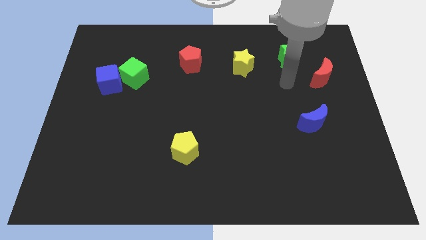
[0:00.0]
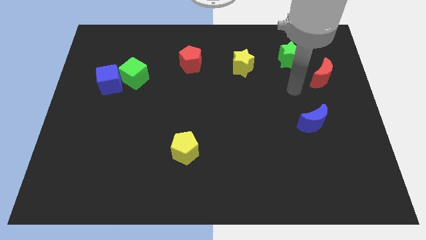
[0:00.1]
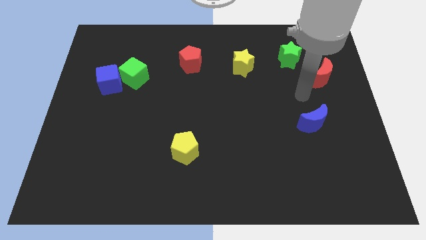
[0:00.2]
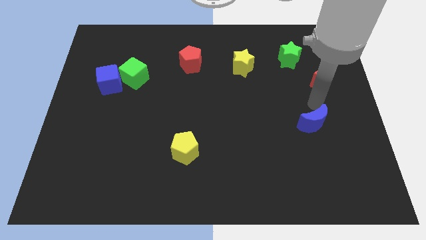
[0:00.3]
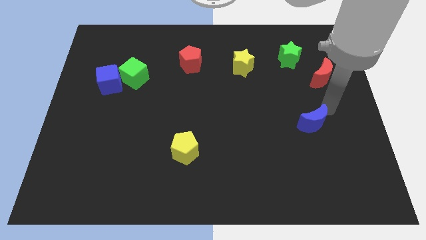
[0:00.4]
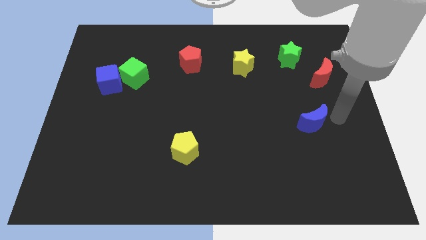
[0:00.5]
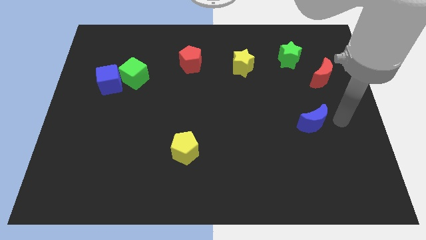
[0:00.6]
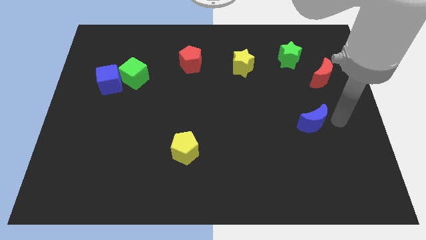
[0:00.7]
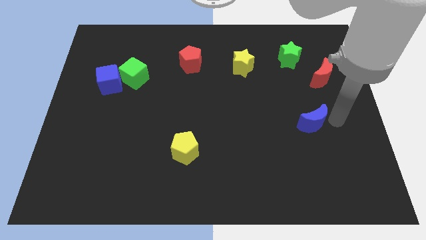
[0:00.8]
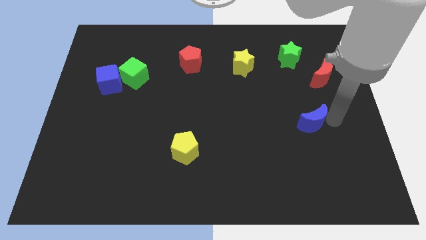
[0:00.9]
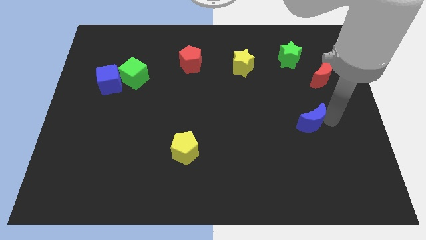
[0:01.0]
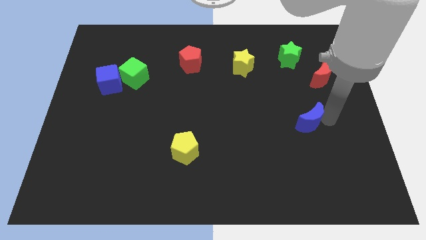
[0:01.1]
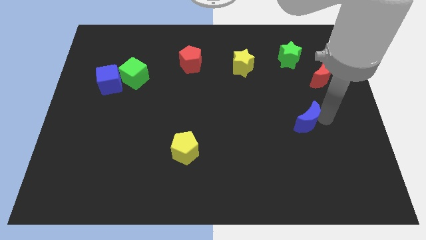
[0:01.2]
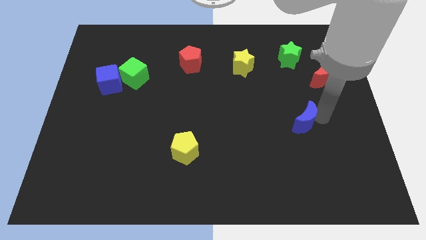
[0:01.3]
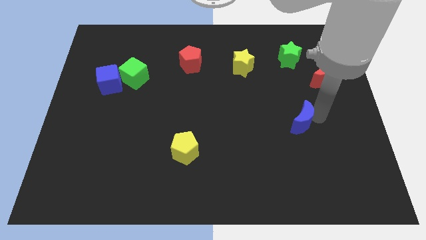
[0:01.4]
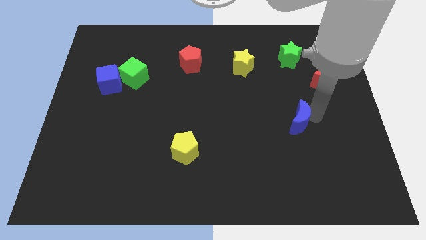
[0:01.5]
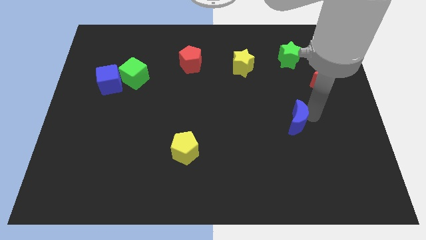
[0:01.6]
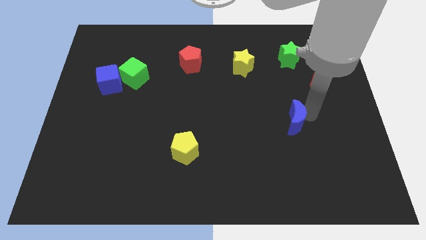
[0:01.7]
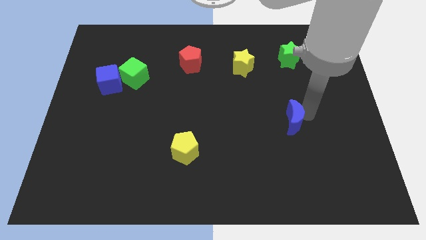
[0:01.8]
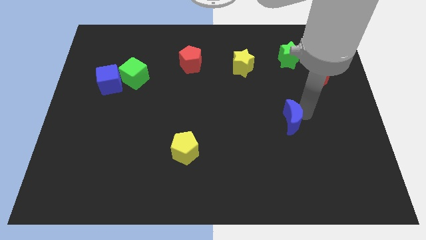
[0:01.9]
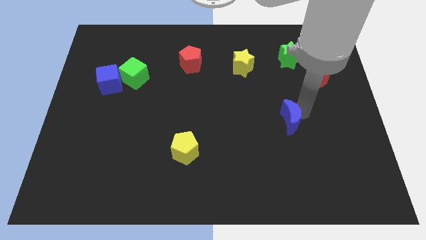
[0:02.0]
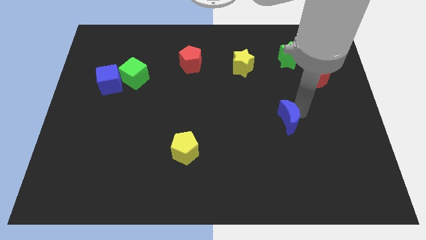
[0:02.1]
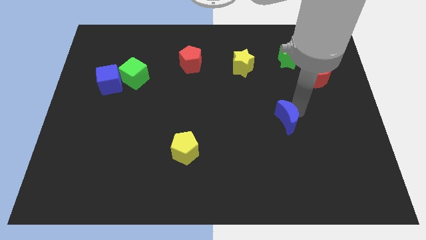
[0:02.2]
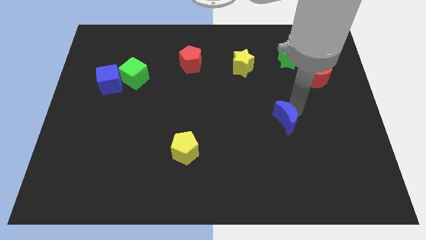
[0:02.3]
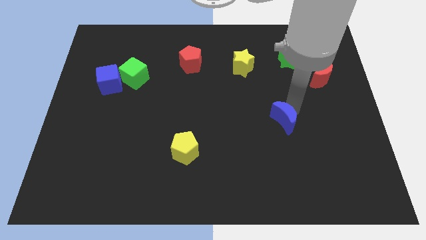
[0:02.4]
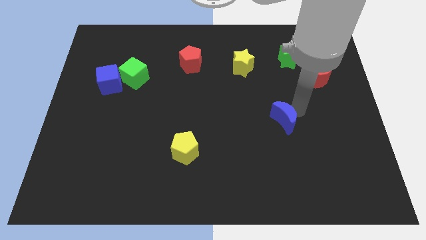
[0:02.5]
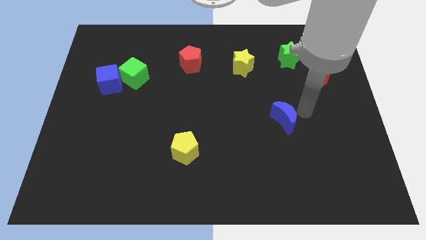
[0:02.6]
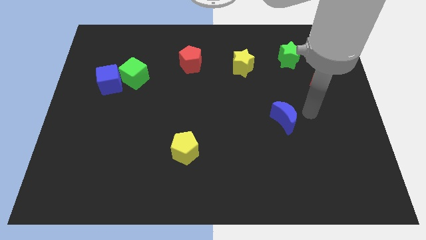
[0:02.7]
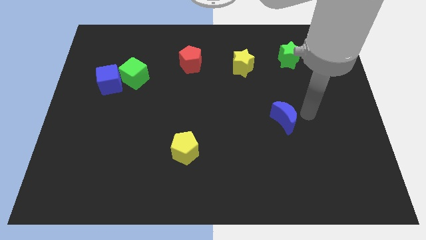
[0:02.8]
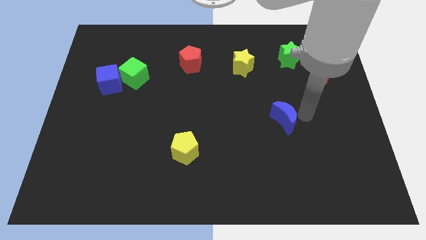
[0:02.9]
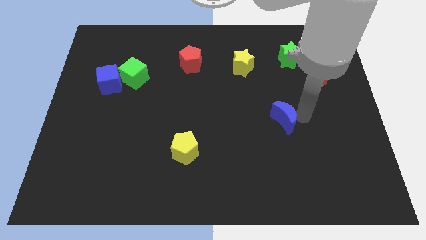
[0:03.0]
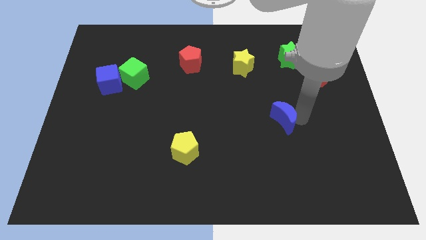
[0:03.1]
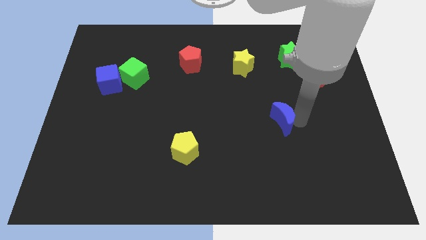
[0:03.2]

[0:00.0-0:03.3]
push the blue moon left somewhat

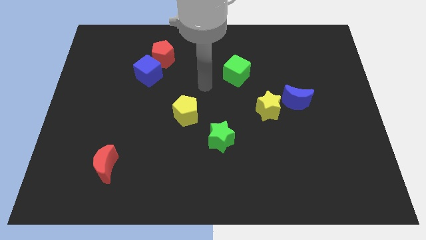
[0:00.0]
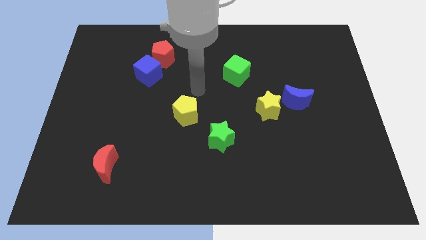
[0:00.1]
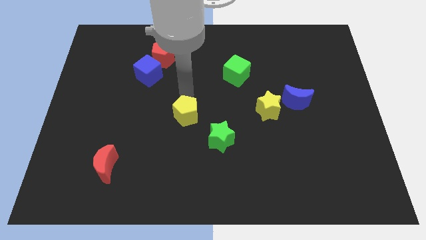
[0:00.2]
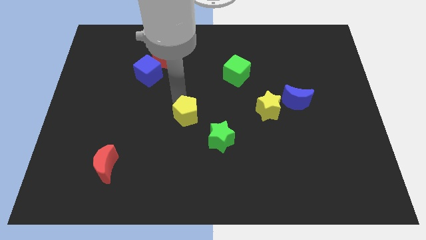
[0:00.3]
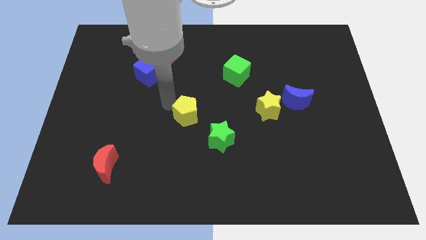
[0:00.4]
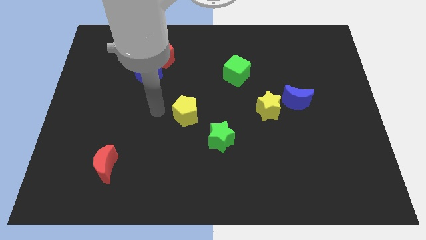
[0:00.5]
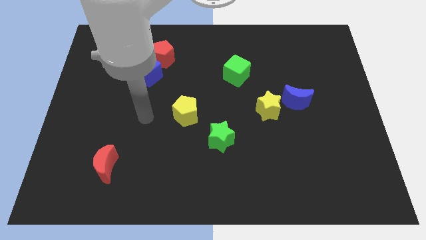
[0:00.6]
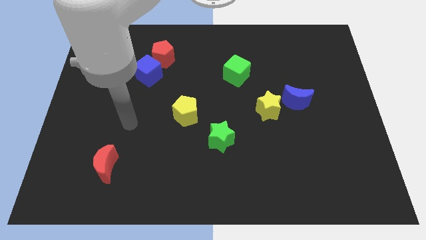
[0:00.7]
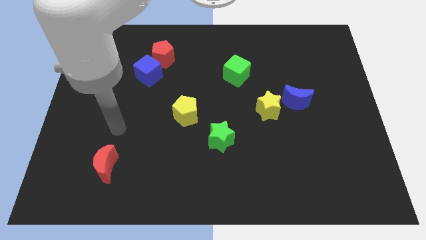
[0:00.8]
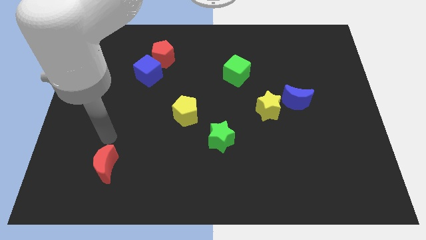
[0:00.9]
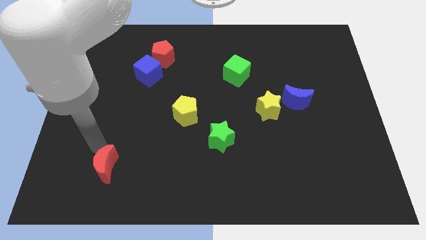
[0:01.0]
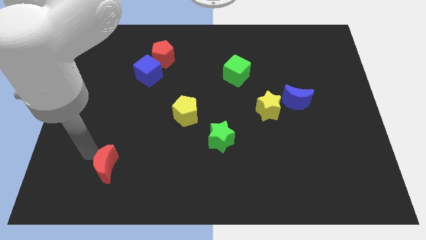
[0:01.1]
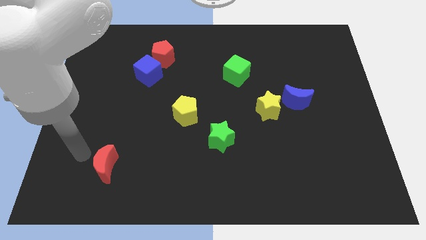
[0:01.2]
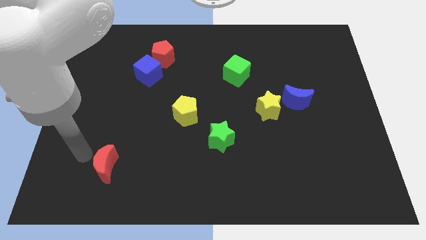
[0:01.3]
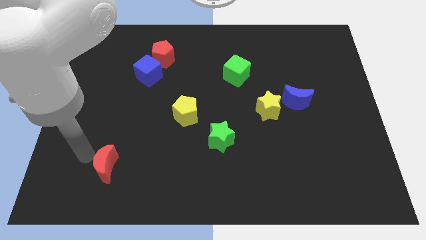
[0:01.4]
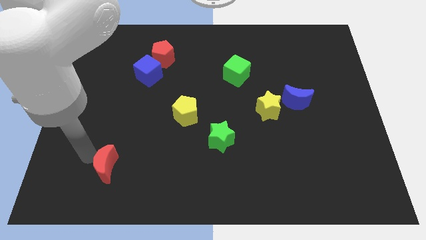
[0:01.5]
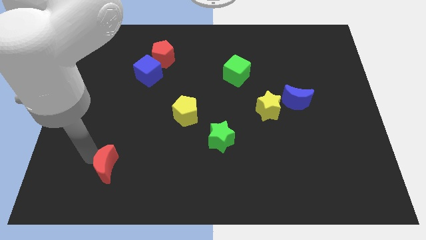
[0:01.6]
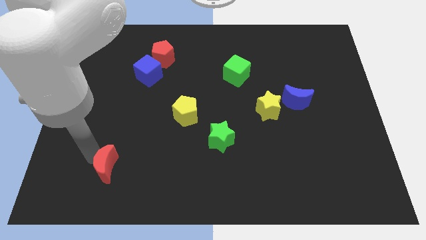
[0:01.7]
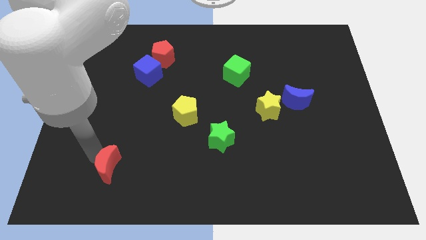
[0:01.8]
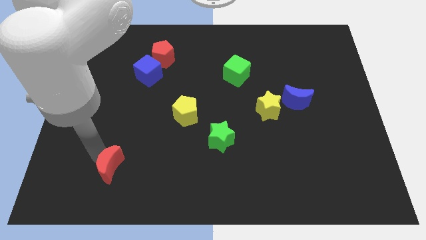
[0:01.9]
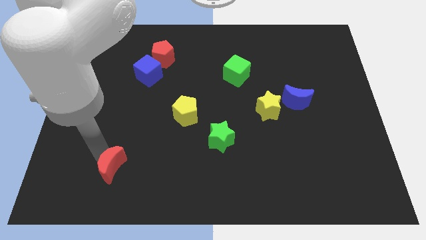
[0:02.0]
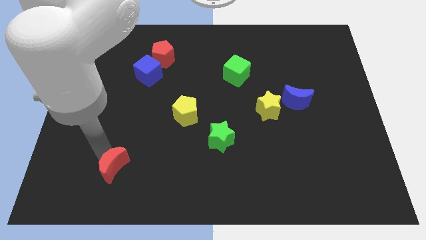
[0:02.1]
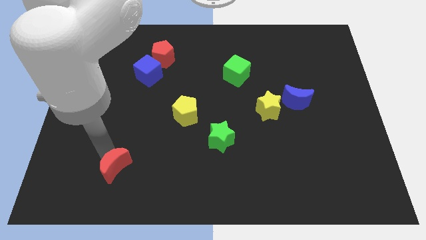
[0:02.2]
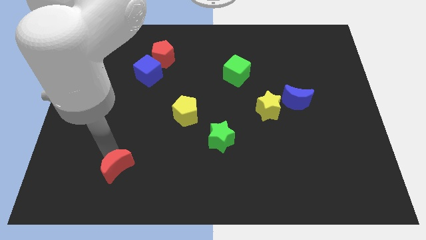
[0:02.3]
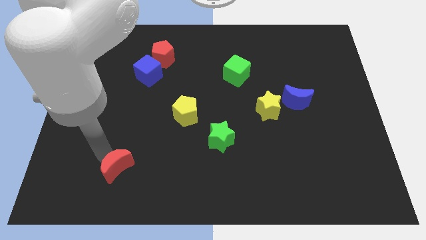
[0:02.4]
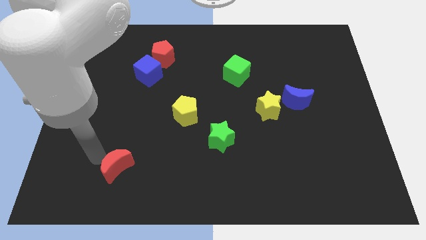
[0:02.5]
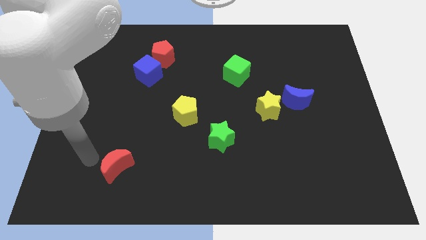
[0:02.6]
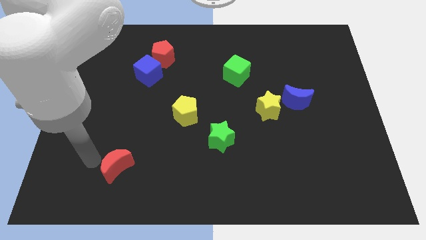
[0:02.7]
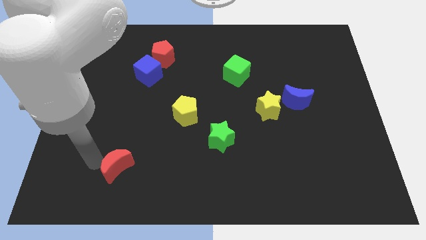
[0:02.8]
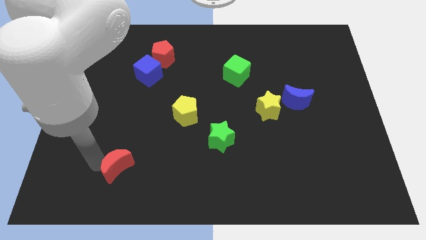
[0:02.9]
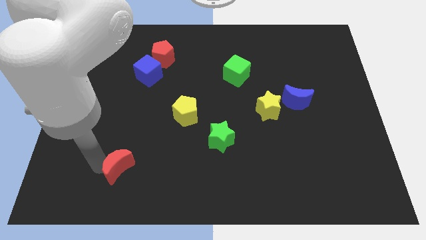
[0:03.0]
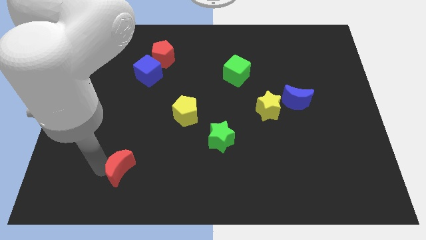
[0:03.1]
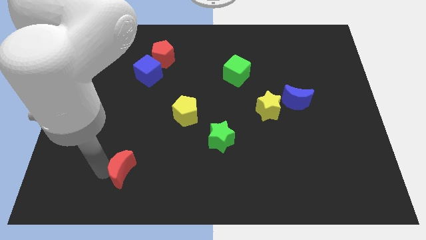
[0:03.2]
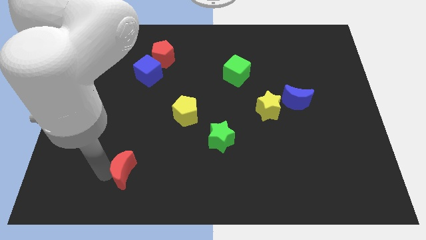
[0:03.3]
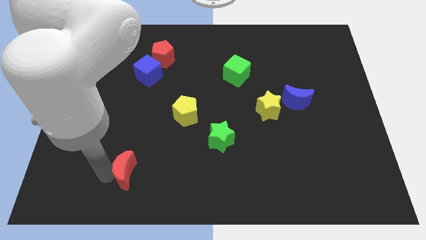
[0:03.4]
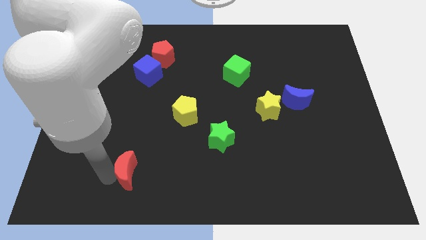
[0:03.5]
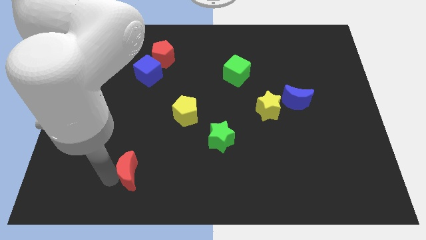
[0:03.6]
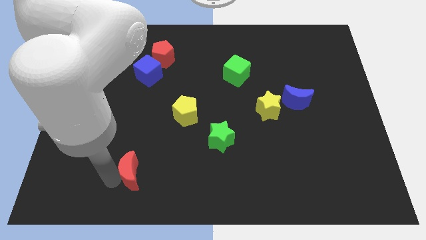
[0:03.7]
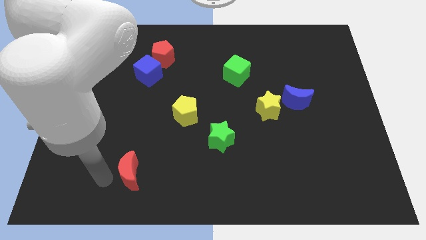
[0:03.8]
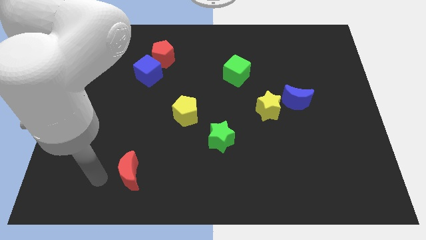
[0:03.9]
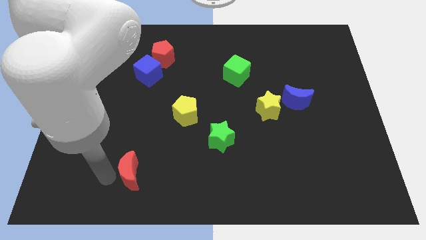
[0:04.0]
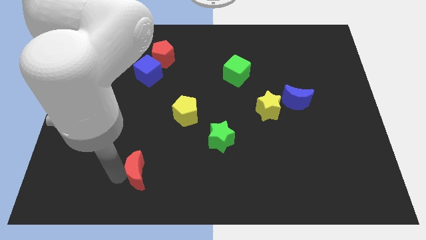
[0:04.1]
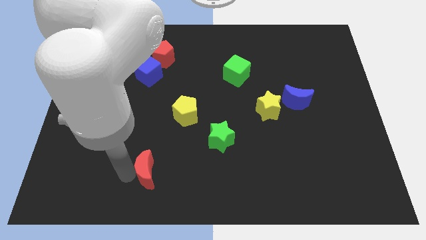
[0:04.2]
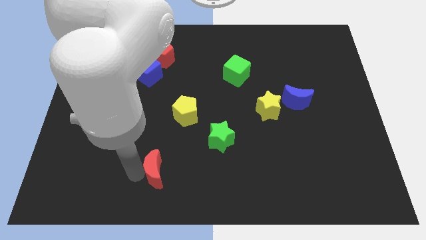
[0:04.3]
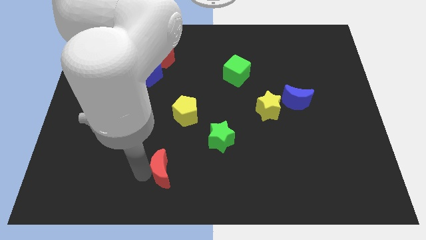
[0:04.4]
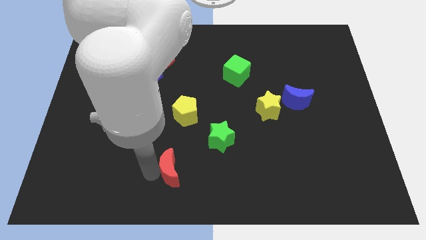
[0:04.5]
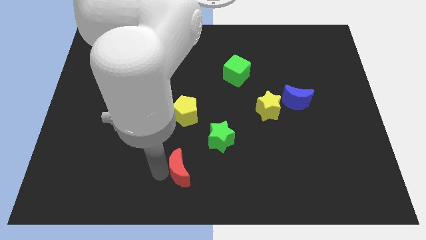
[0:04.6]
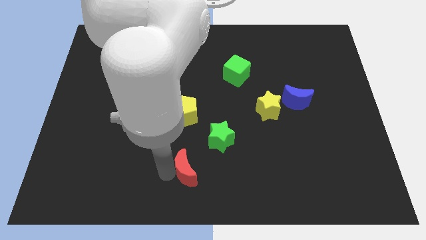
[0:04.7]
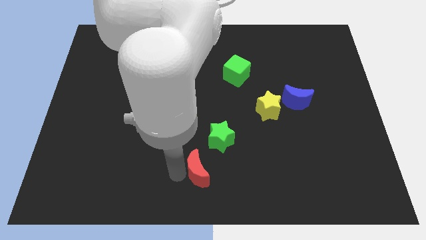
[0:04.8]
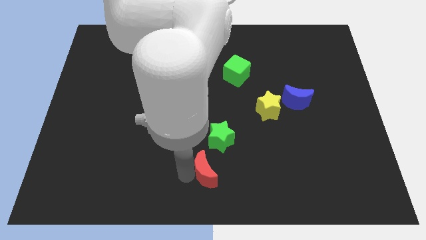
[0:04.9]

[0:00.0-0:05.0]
slide the red moon to the right
